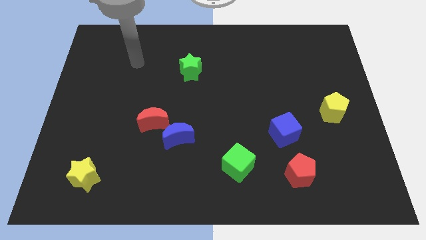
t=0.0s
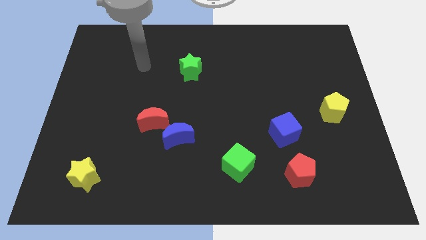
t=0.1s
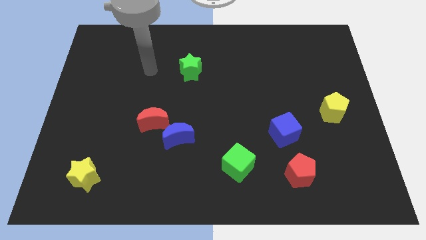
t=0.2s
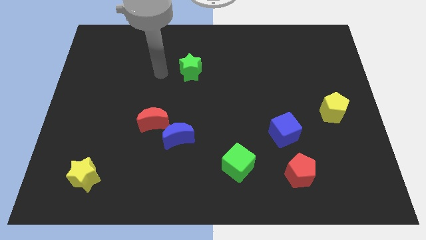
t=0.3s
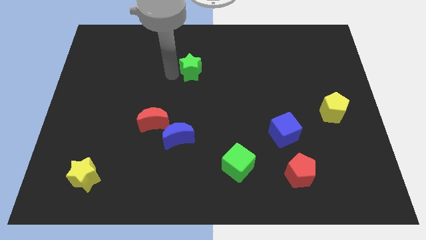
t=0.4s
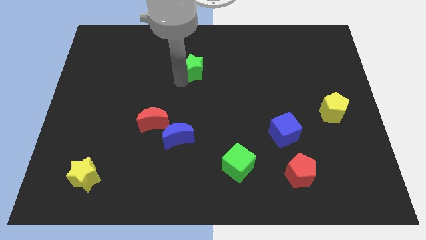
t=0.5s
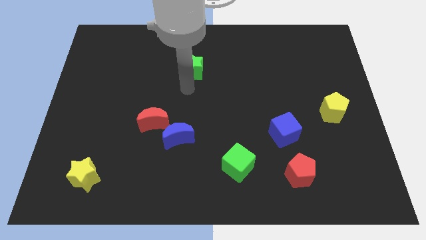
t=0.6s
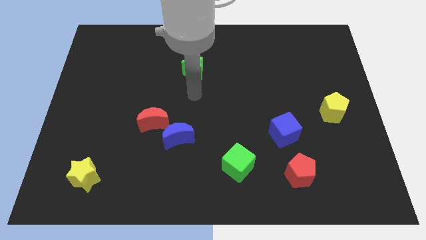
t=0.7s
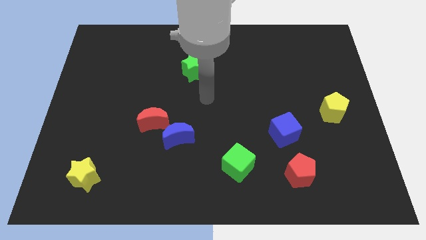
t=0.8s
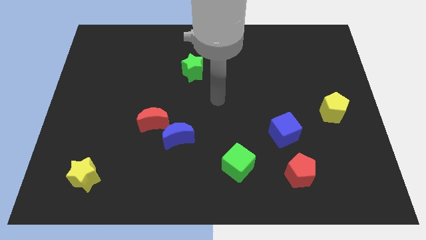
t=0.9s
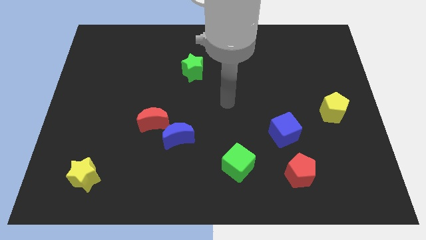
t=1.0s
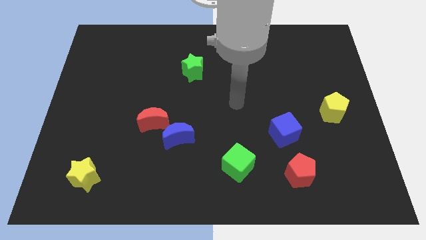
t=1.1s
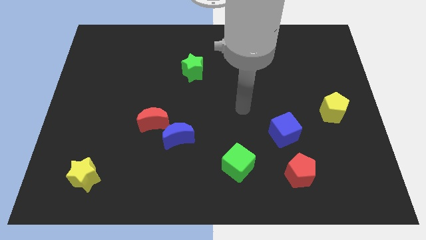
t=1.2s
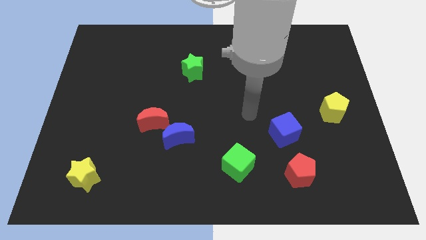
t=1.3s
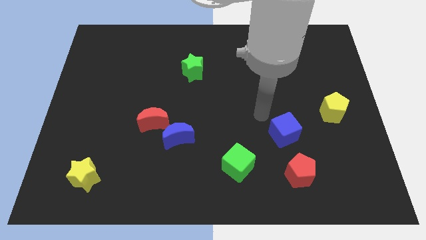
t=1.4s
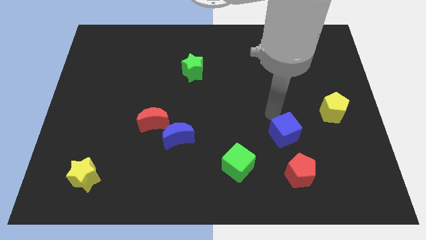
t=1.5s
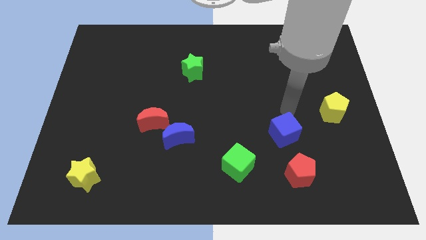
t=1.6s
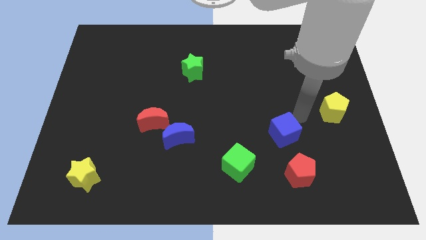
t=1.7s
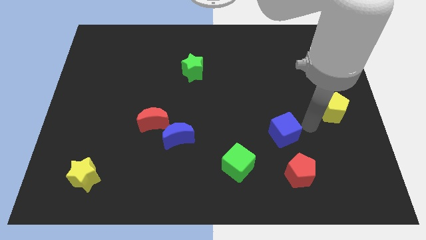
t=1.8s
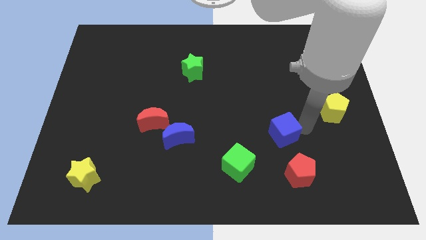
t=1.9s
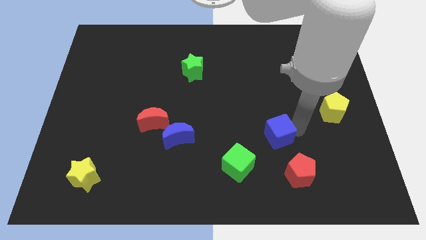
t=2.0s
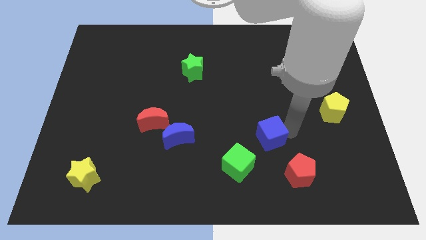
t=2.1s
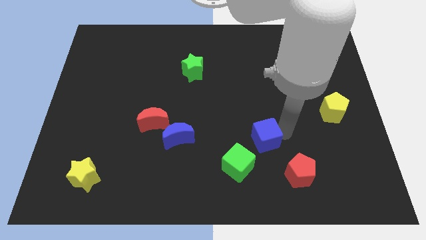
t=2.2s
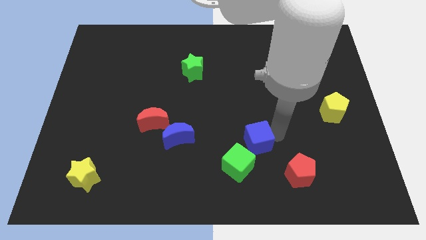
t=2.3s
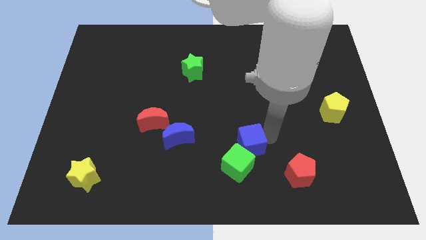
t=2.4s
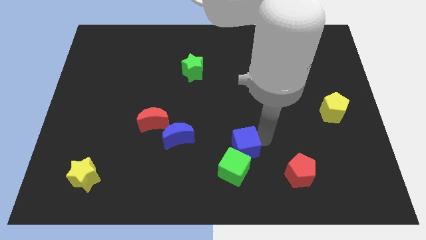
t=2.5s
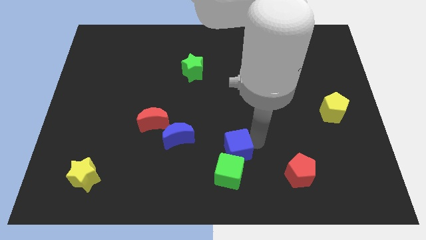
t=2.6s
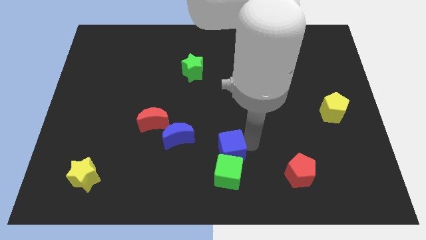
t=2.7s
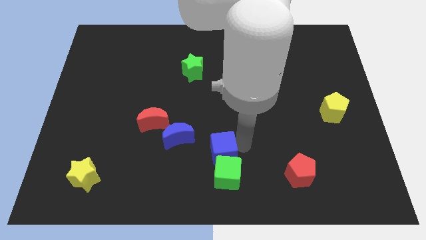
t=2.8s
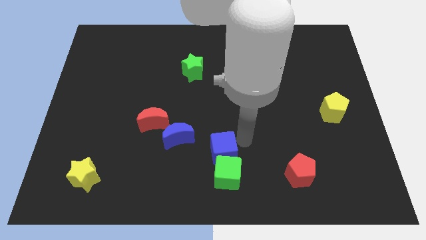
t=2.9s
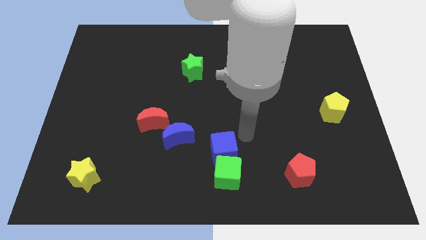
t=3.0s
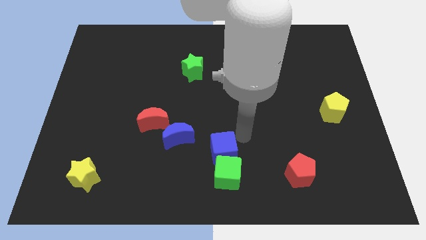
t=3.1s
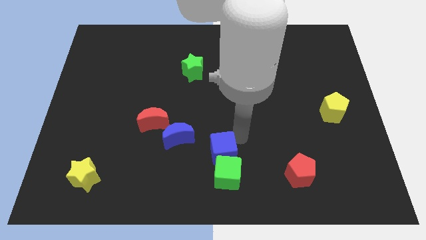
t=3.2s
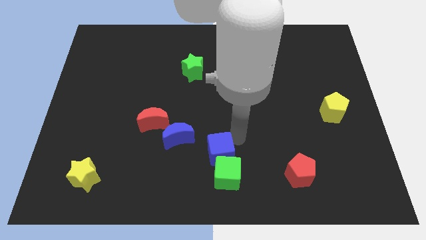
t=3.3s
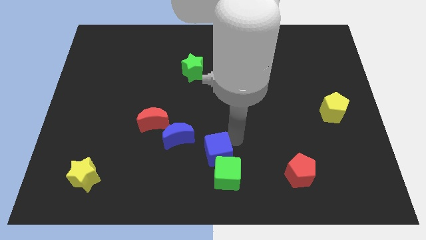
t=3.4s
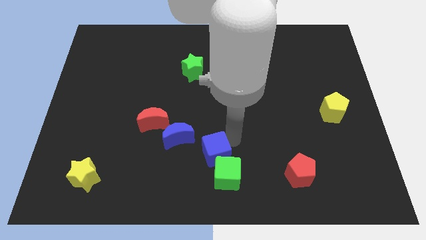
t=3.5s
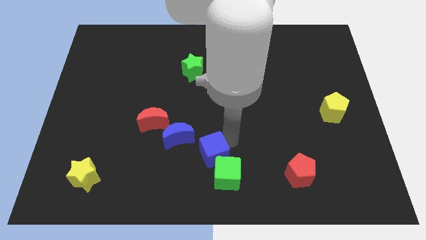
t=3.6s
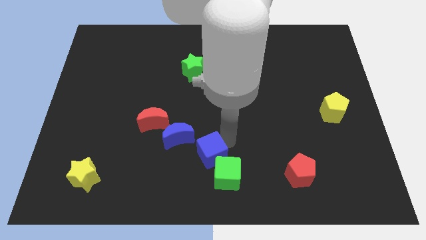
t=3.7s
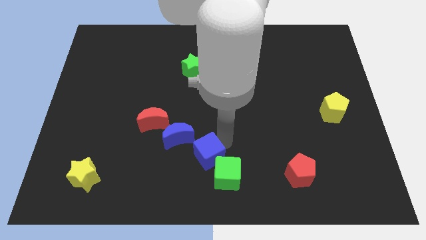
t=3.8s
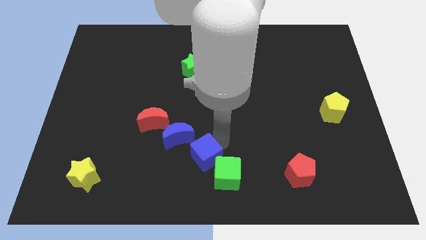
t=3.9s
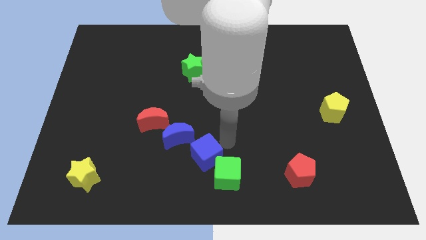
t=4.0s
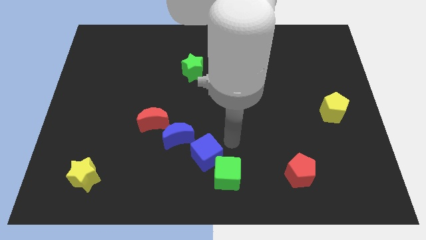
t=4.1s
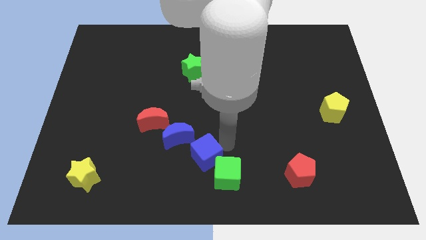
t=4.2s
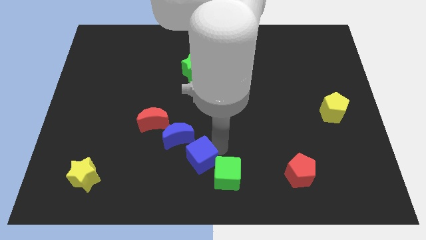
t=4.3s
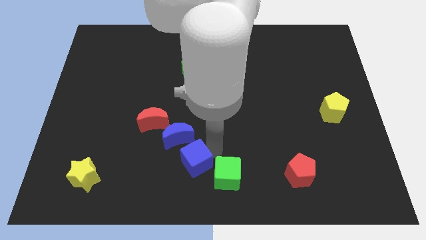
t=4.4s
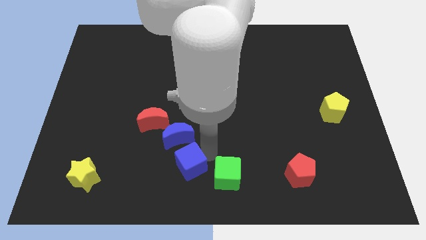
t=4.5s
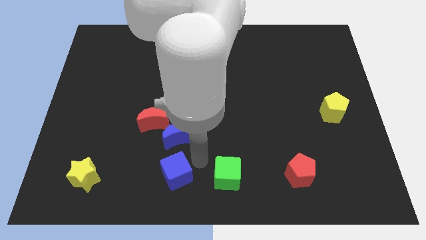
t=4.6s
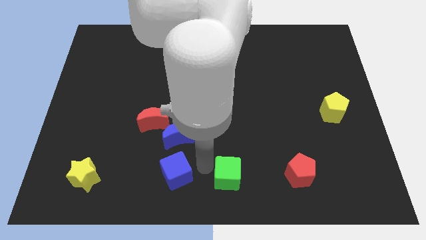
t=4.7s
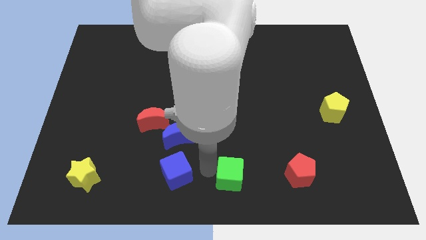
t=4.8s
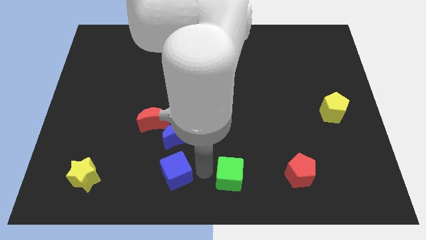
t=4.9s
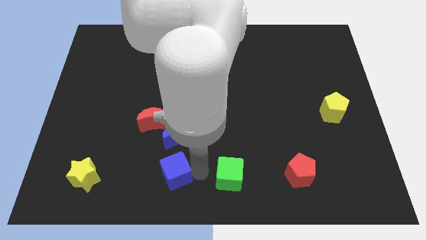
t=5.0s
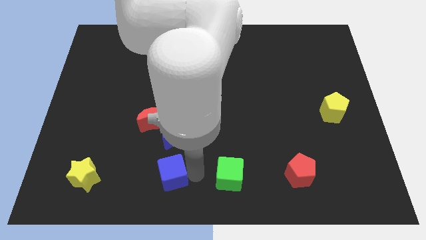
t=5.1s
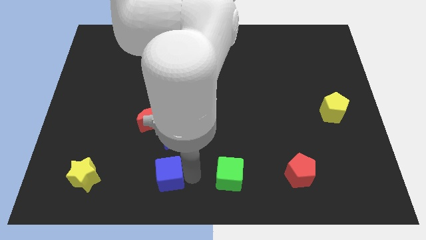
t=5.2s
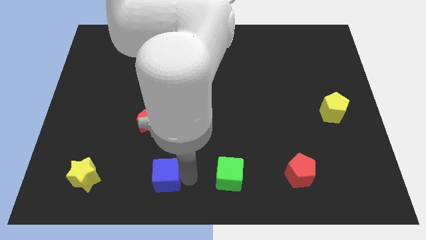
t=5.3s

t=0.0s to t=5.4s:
put the blue cube to the right of the yellow star

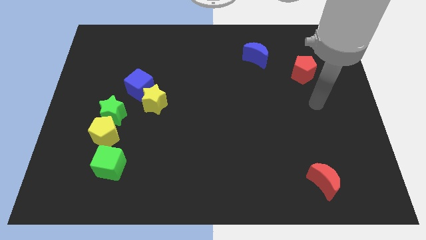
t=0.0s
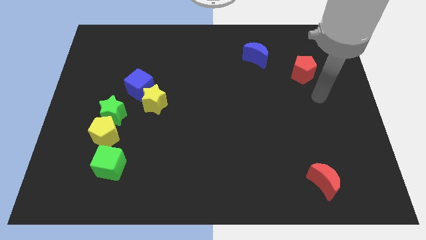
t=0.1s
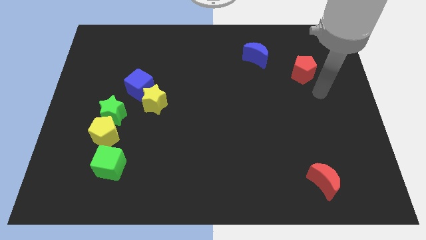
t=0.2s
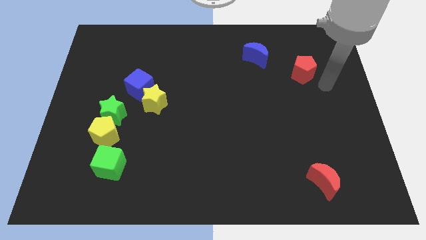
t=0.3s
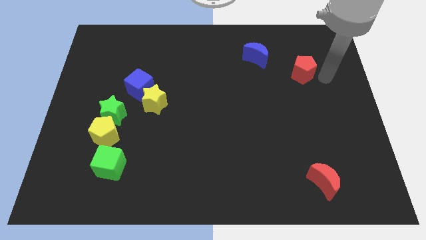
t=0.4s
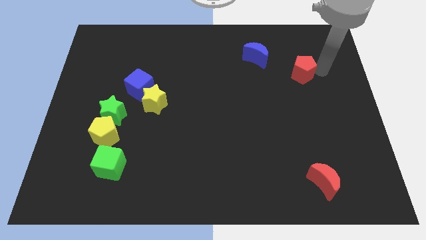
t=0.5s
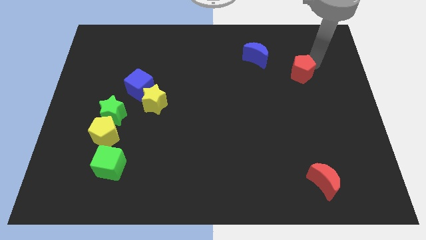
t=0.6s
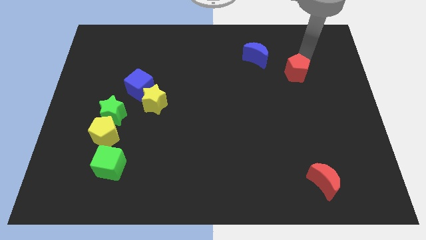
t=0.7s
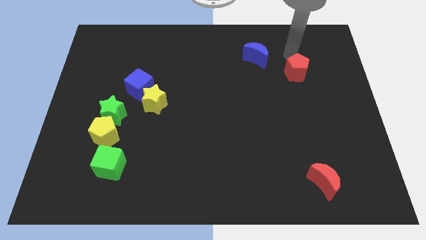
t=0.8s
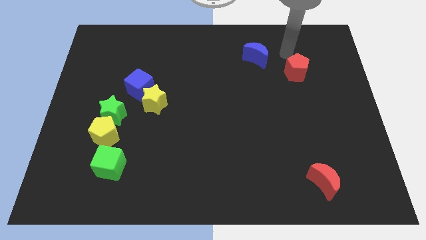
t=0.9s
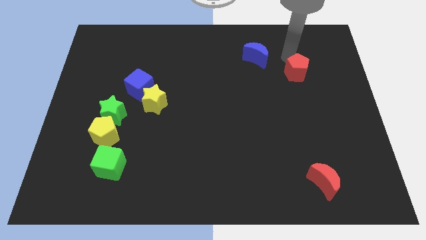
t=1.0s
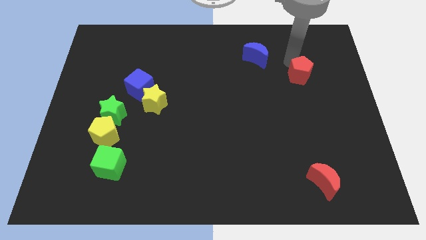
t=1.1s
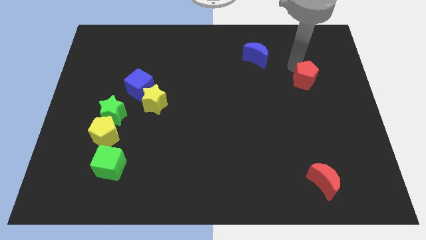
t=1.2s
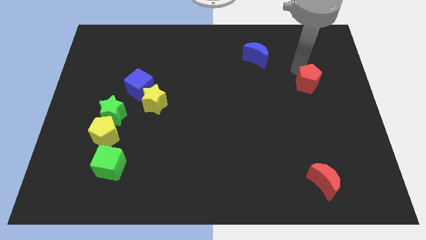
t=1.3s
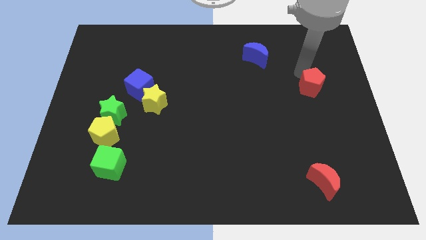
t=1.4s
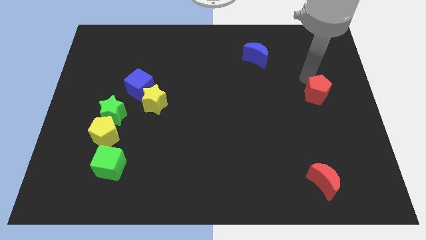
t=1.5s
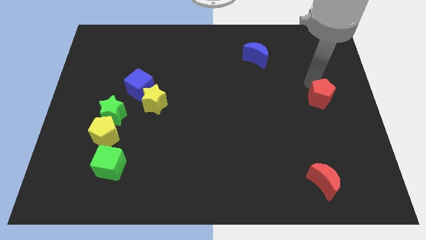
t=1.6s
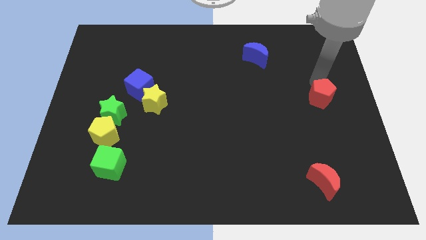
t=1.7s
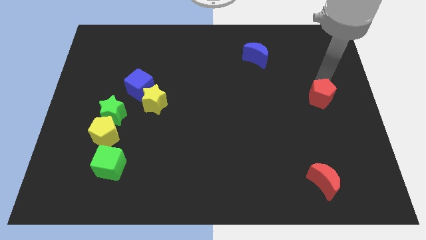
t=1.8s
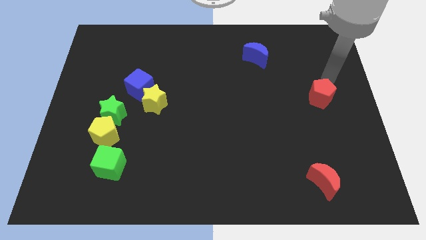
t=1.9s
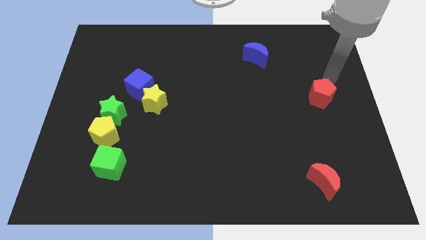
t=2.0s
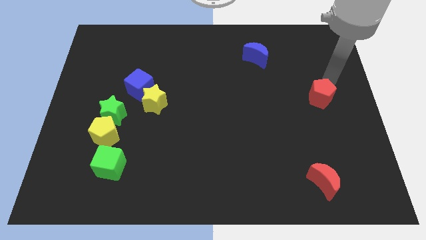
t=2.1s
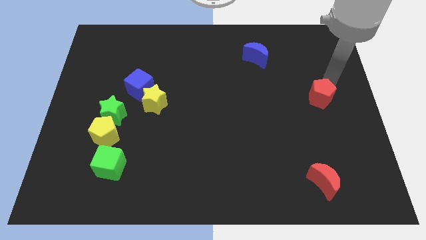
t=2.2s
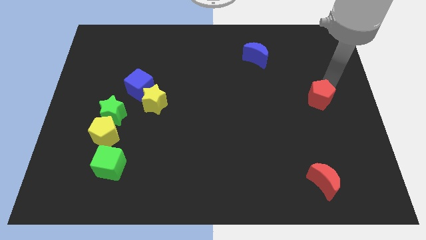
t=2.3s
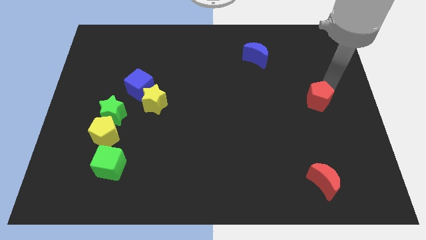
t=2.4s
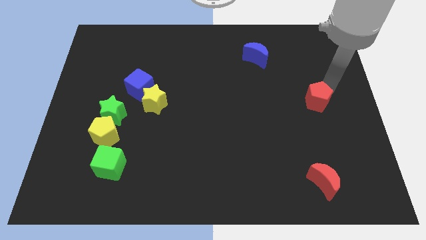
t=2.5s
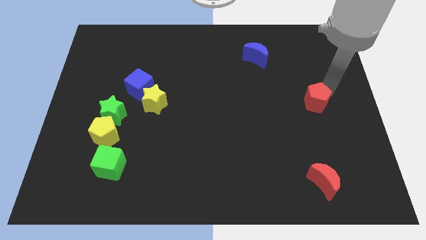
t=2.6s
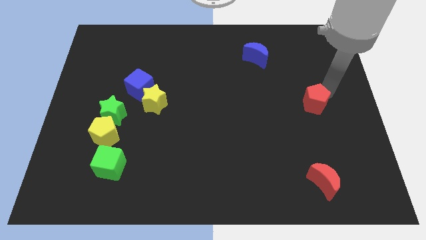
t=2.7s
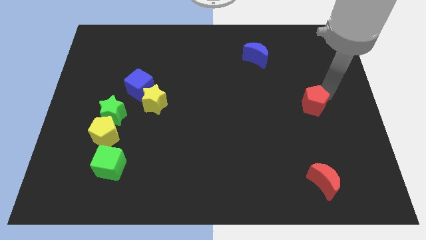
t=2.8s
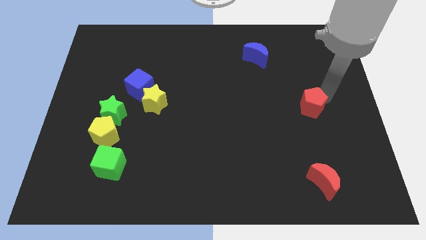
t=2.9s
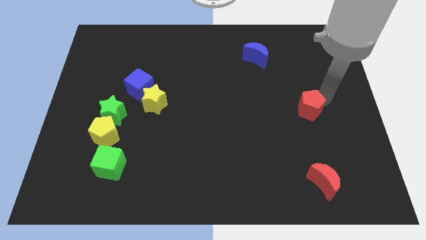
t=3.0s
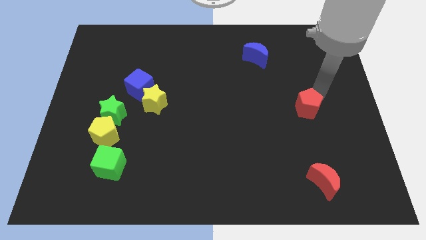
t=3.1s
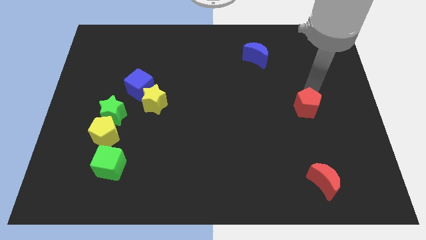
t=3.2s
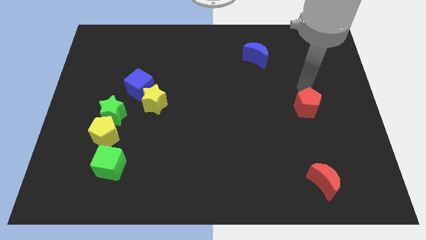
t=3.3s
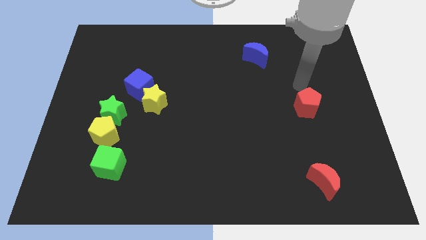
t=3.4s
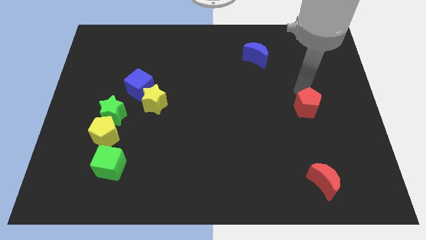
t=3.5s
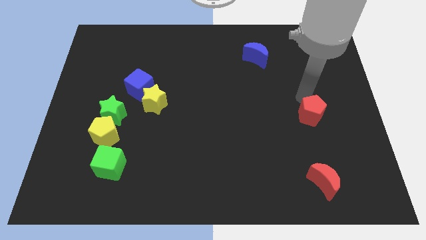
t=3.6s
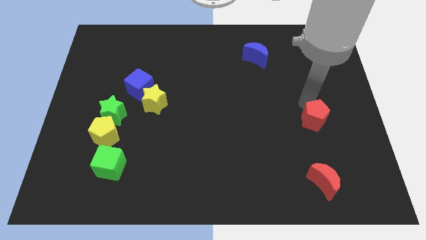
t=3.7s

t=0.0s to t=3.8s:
move the red pentagon above the red moon
